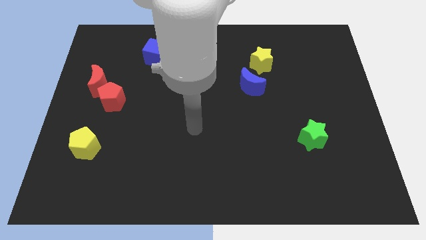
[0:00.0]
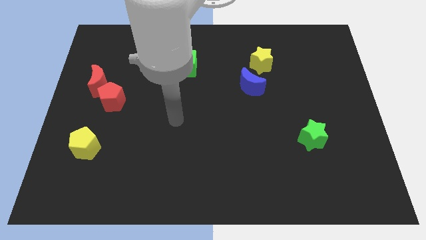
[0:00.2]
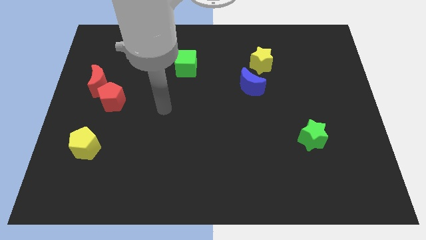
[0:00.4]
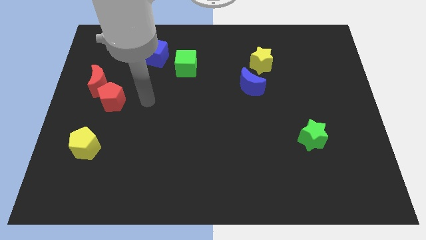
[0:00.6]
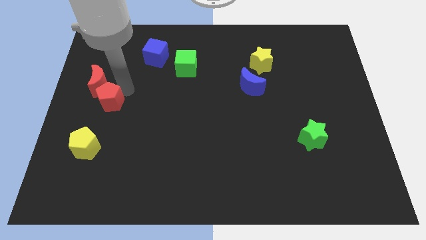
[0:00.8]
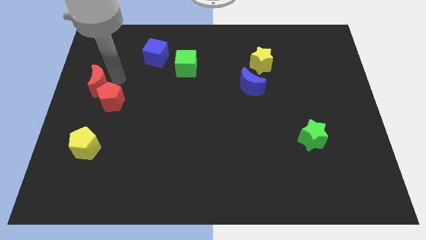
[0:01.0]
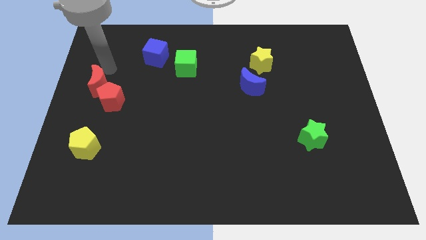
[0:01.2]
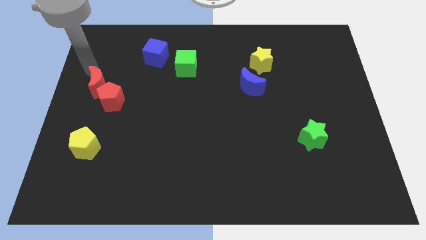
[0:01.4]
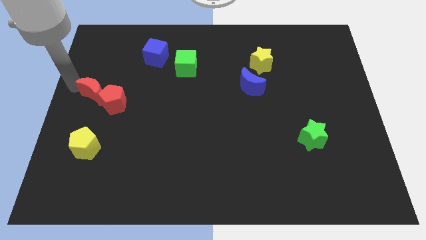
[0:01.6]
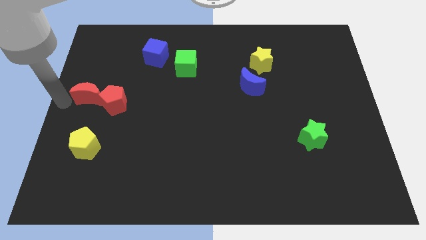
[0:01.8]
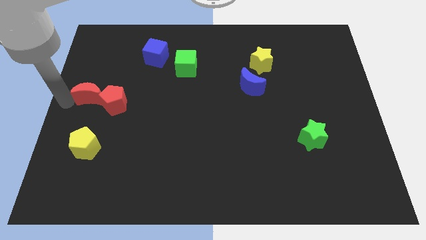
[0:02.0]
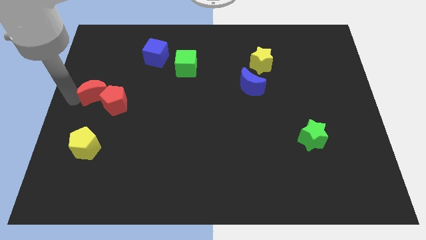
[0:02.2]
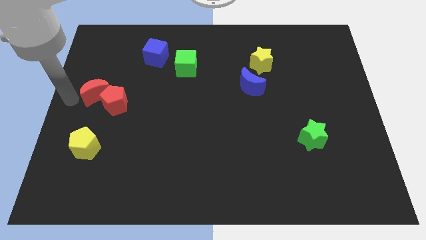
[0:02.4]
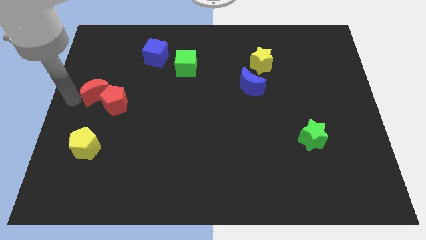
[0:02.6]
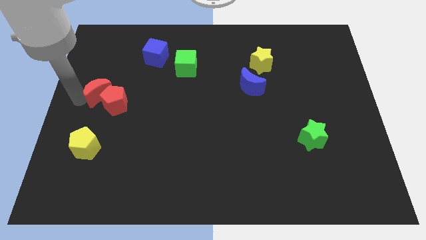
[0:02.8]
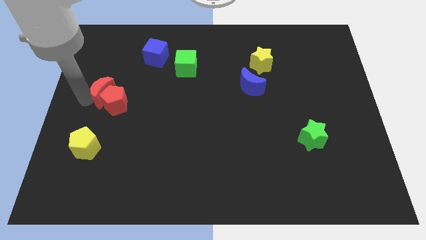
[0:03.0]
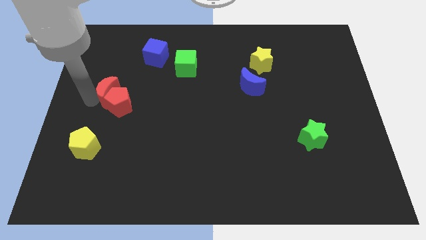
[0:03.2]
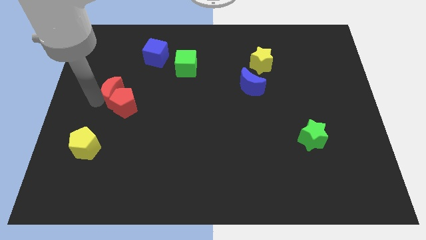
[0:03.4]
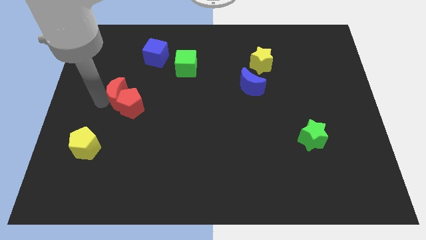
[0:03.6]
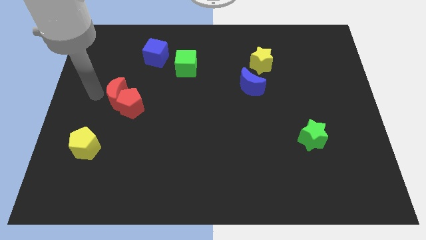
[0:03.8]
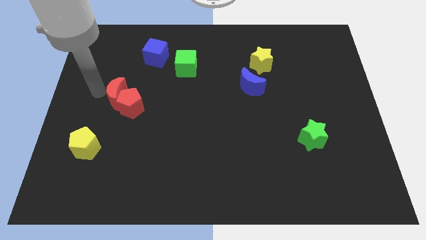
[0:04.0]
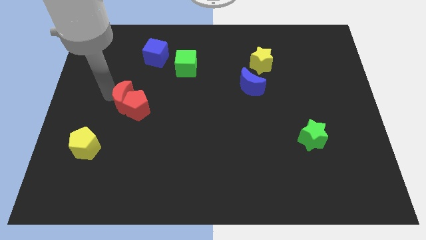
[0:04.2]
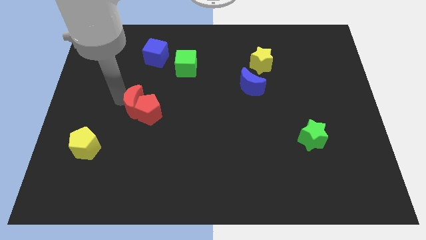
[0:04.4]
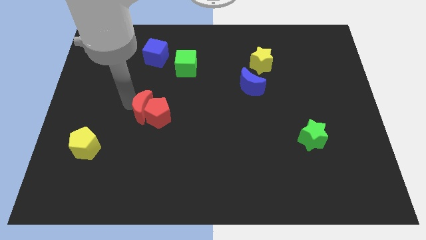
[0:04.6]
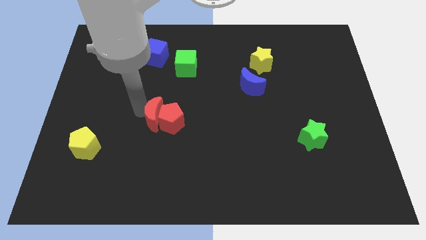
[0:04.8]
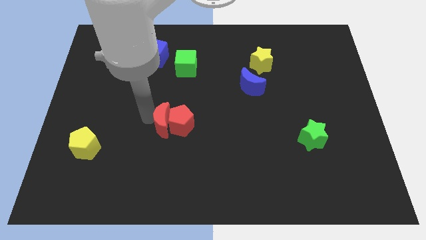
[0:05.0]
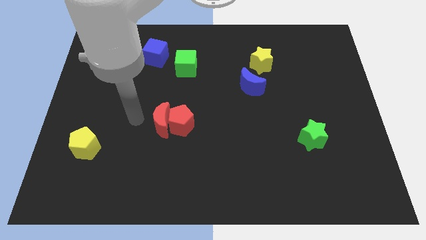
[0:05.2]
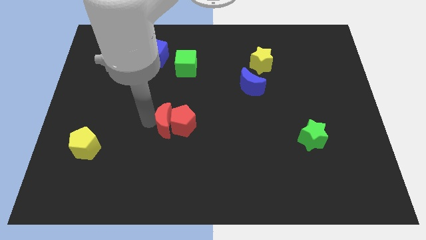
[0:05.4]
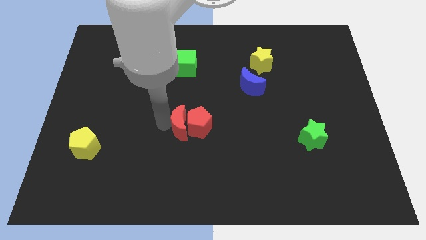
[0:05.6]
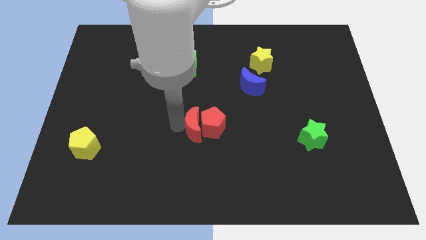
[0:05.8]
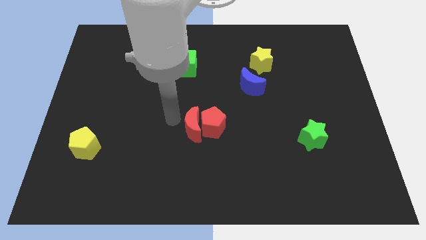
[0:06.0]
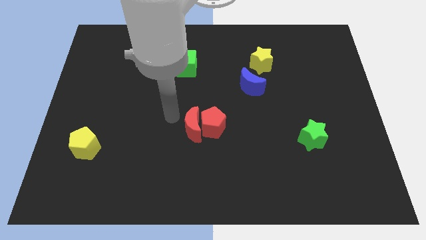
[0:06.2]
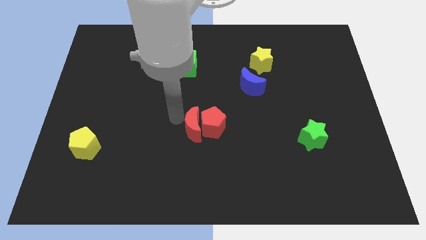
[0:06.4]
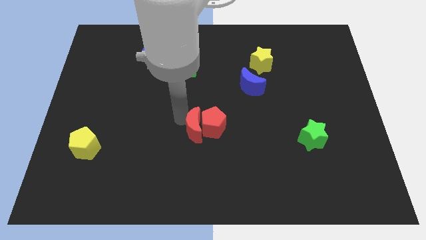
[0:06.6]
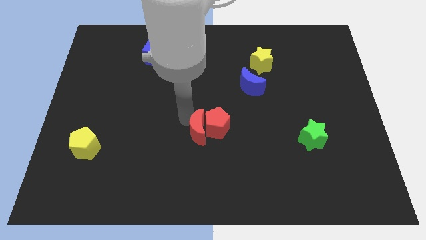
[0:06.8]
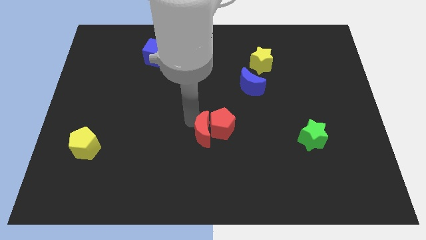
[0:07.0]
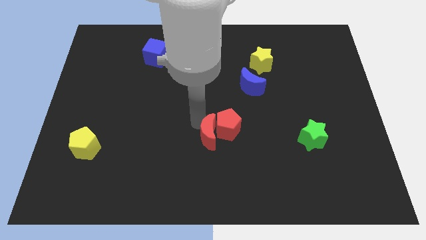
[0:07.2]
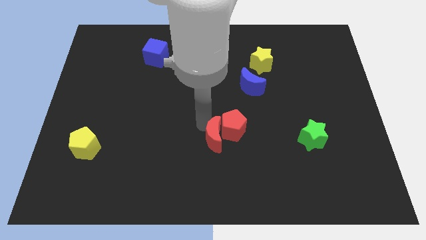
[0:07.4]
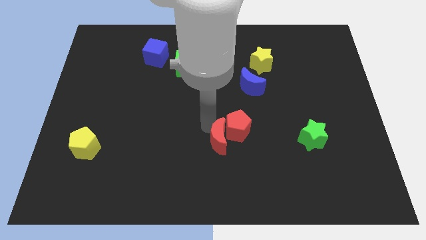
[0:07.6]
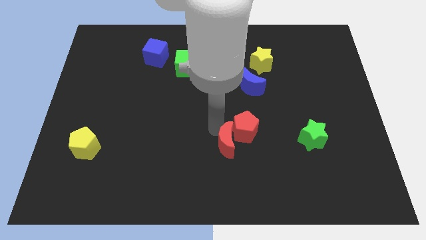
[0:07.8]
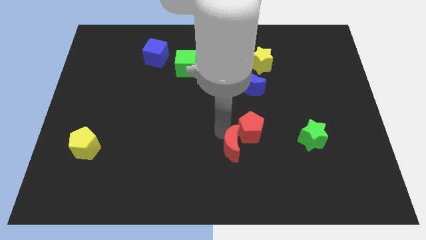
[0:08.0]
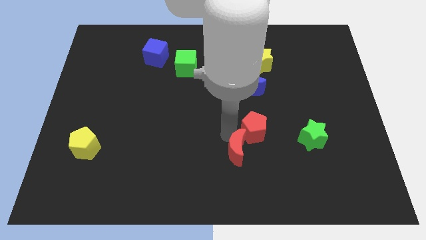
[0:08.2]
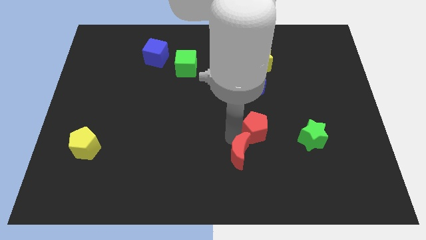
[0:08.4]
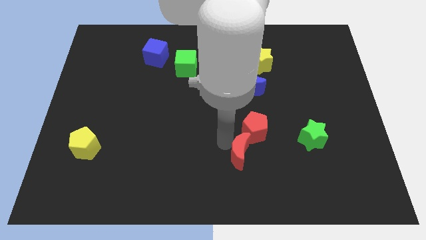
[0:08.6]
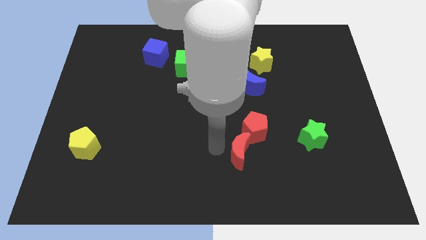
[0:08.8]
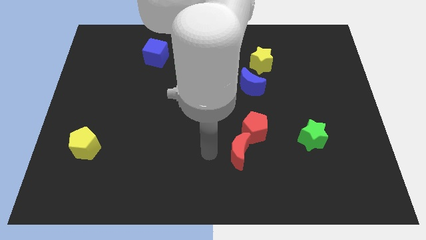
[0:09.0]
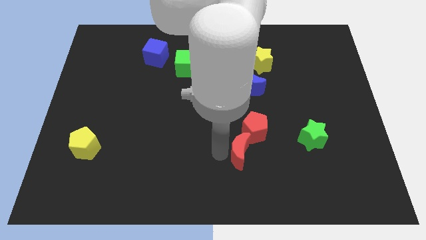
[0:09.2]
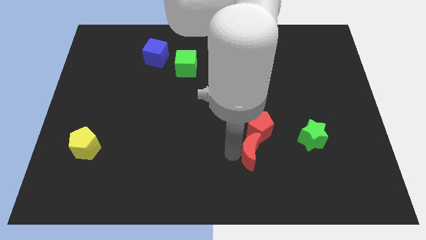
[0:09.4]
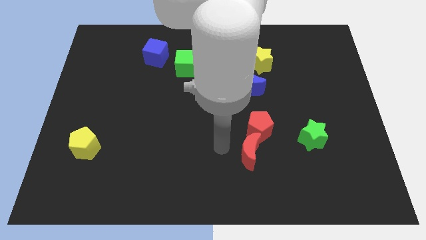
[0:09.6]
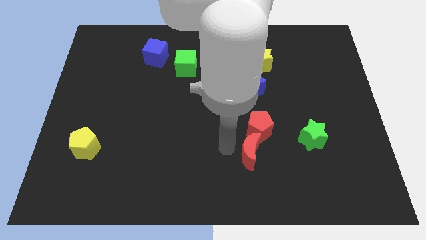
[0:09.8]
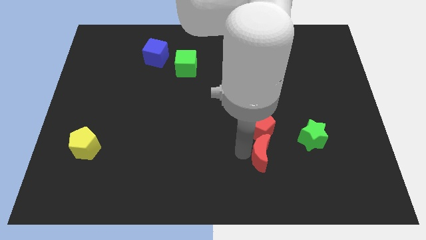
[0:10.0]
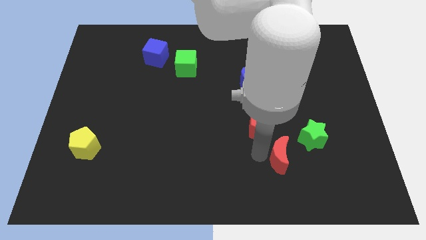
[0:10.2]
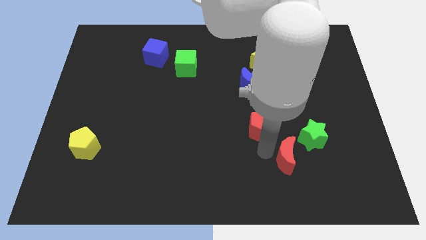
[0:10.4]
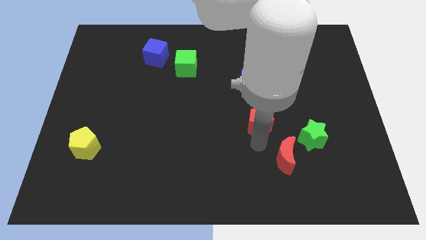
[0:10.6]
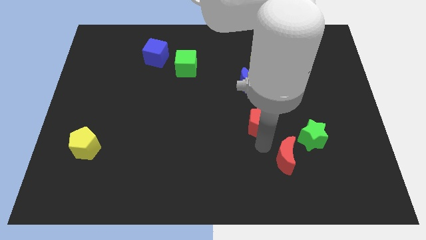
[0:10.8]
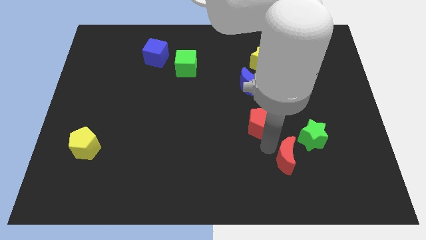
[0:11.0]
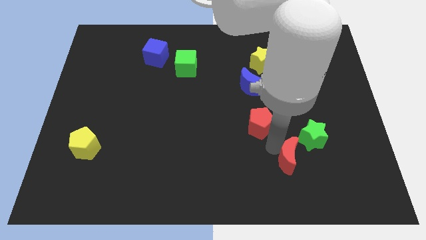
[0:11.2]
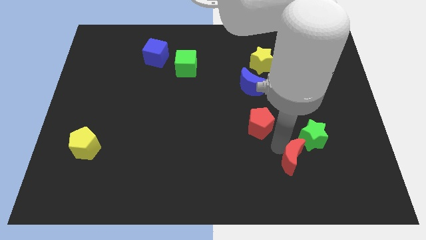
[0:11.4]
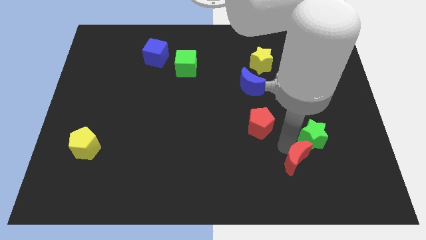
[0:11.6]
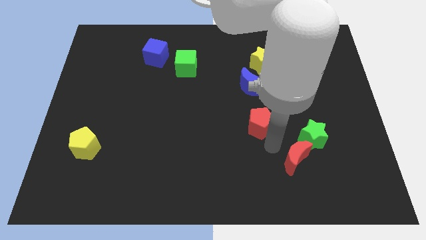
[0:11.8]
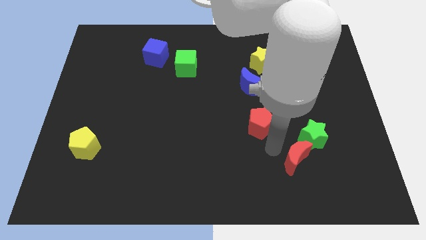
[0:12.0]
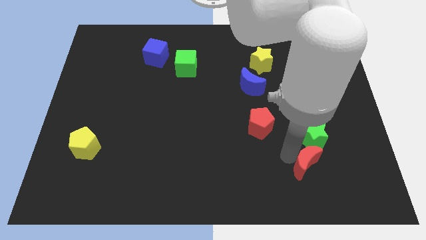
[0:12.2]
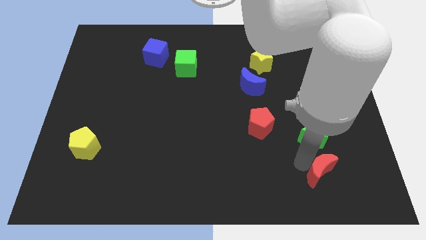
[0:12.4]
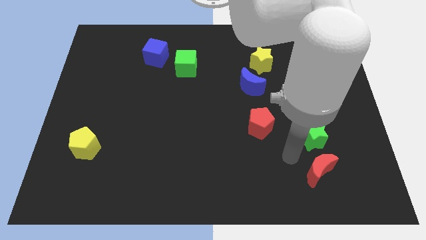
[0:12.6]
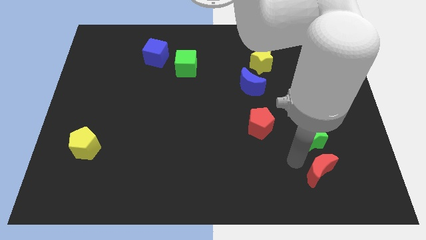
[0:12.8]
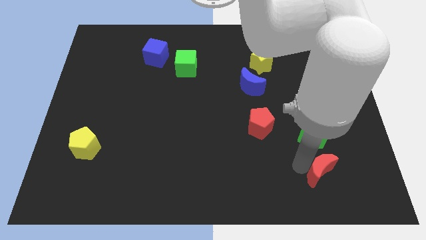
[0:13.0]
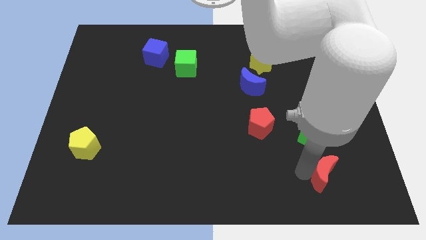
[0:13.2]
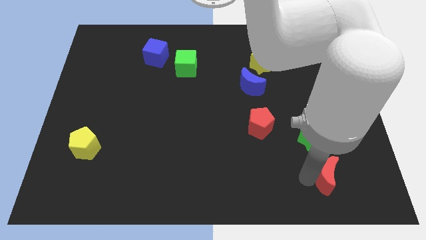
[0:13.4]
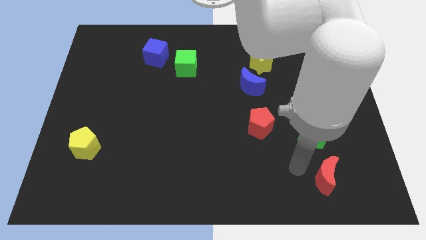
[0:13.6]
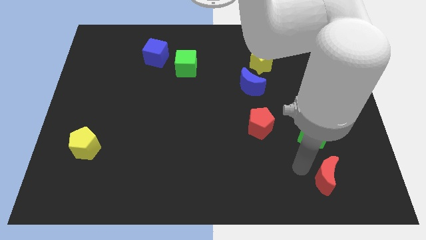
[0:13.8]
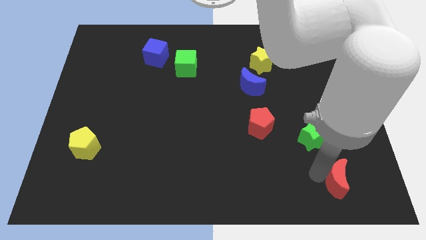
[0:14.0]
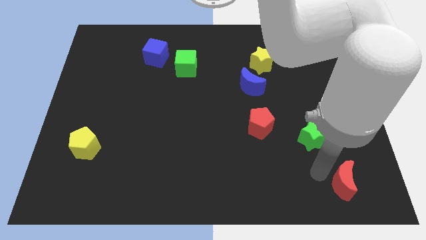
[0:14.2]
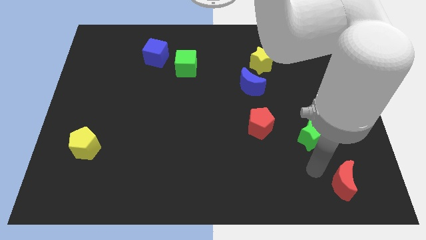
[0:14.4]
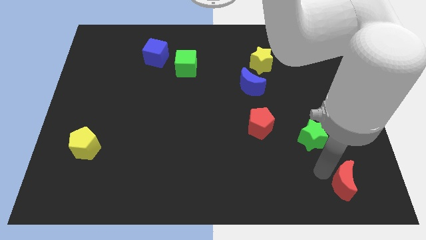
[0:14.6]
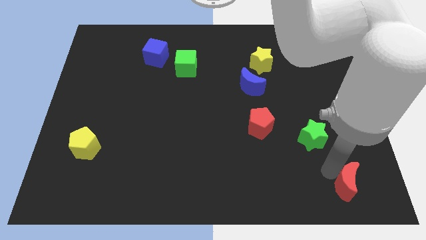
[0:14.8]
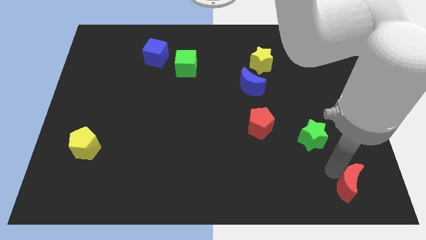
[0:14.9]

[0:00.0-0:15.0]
move the red moon to the lower right corner
